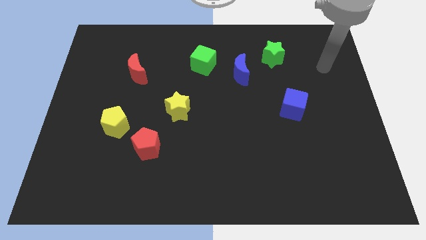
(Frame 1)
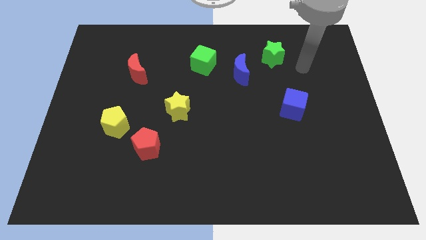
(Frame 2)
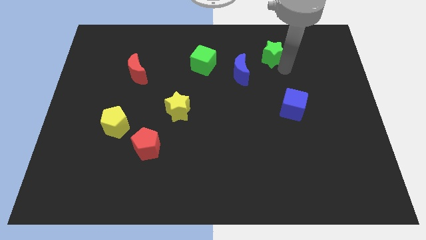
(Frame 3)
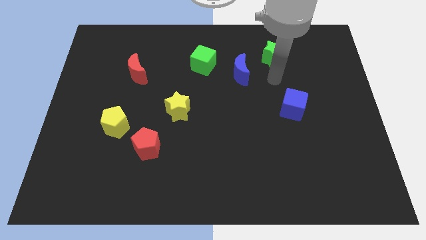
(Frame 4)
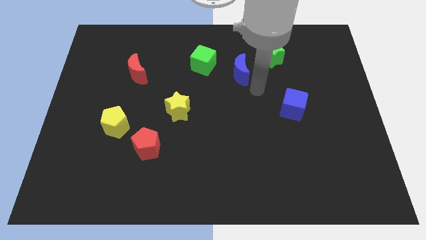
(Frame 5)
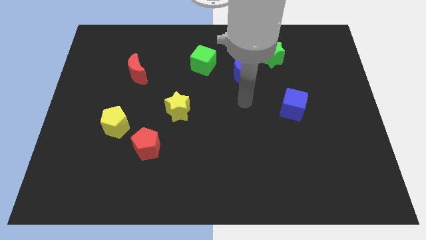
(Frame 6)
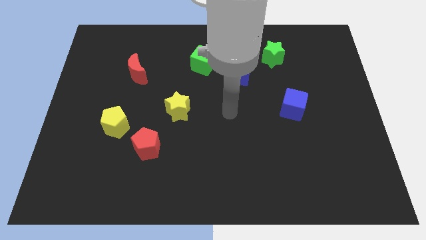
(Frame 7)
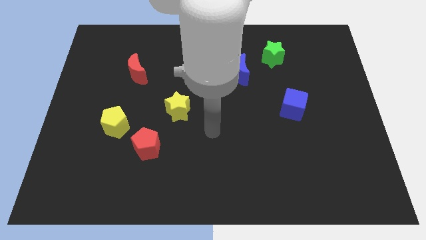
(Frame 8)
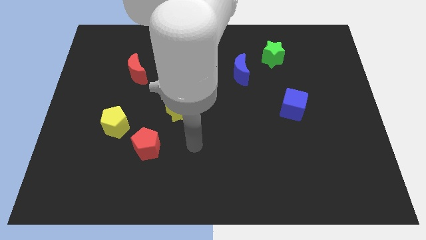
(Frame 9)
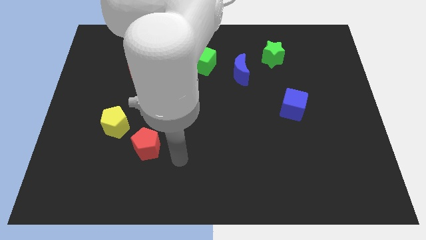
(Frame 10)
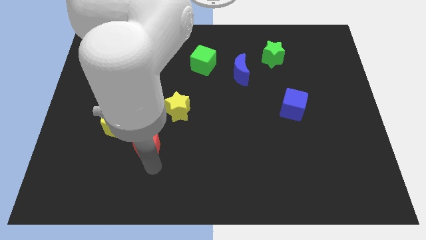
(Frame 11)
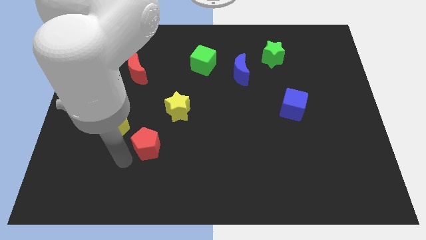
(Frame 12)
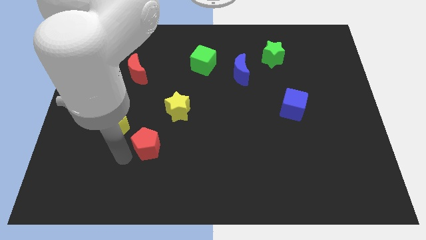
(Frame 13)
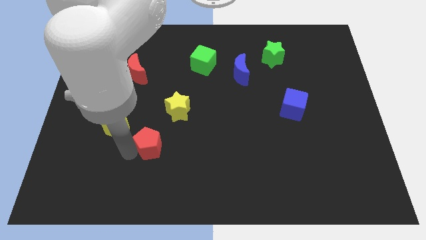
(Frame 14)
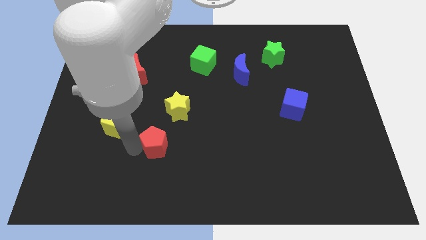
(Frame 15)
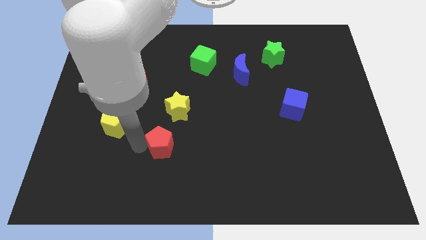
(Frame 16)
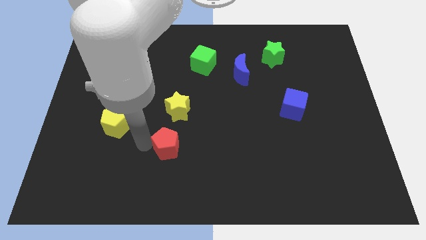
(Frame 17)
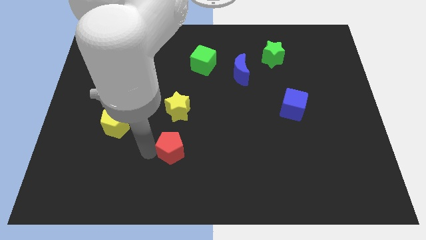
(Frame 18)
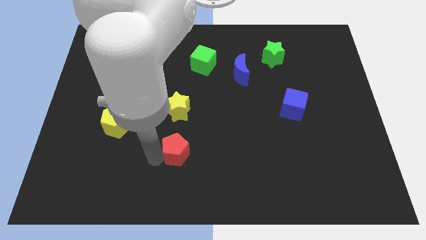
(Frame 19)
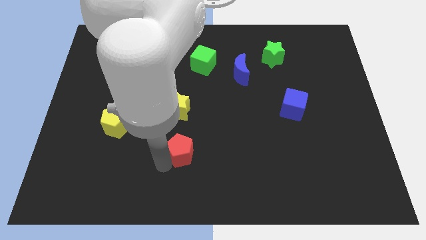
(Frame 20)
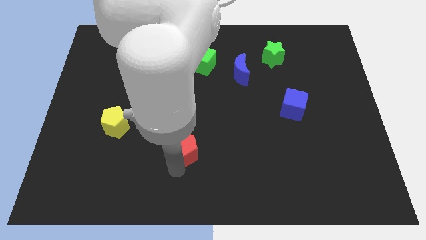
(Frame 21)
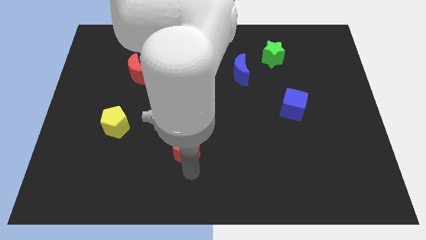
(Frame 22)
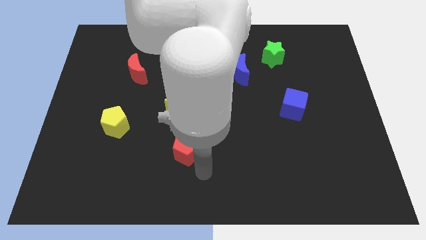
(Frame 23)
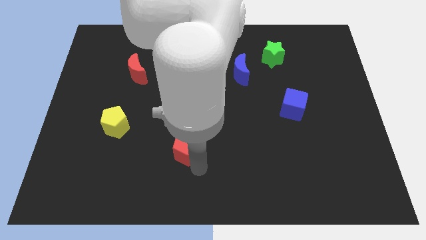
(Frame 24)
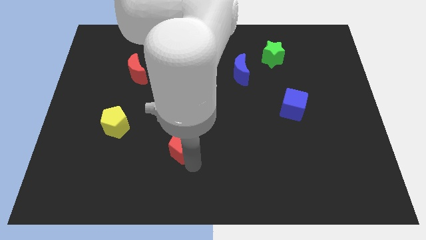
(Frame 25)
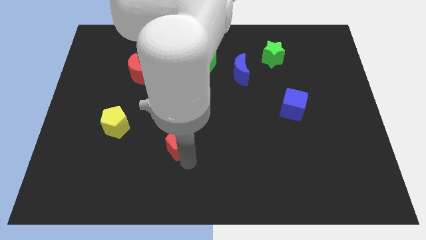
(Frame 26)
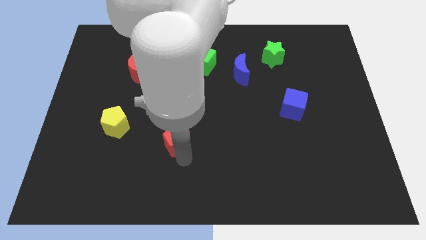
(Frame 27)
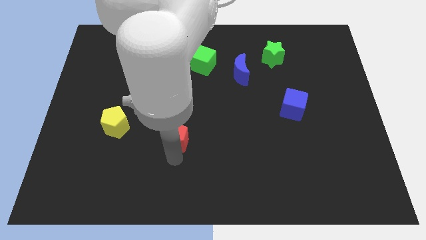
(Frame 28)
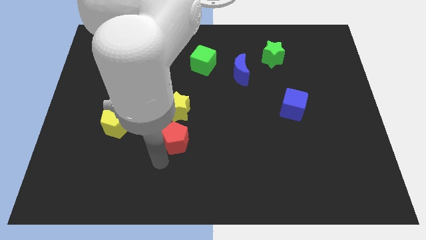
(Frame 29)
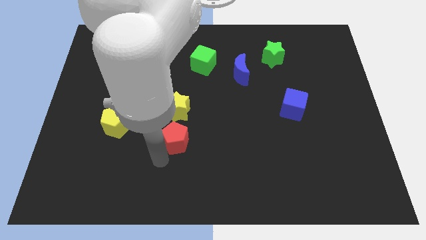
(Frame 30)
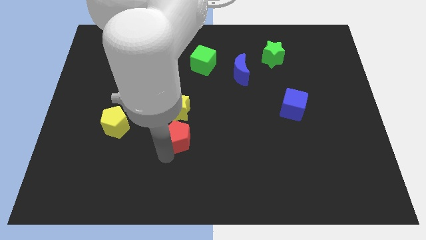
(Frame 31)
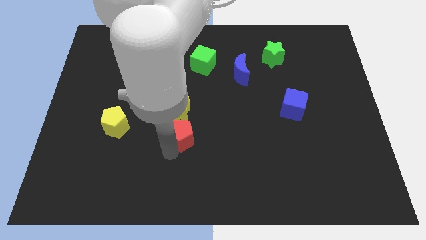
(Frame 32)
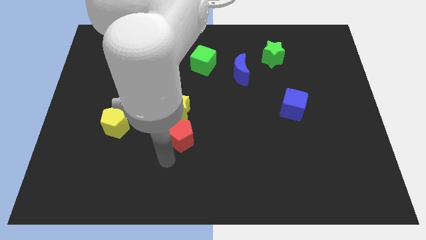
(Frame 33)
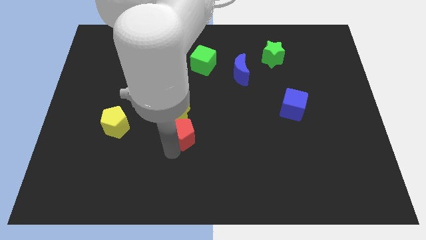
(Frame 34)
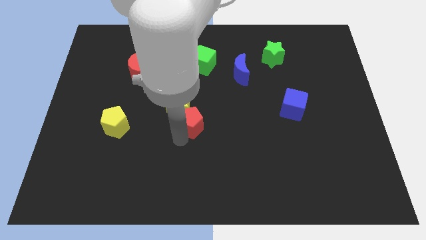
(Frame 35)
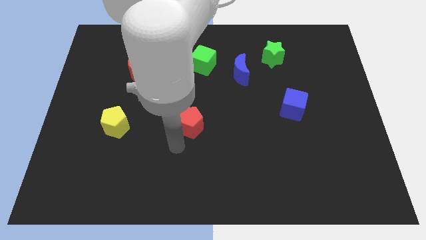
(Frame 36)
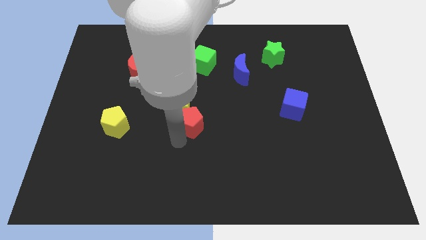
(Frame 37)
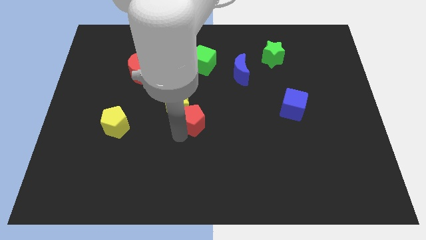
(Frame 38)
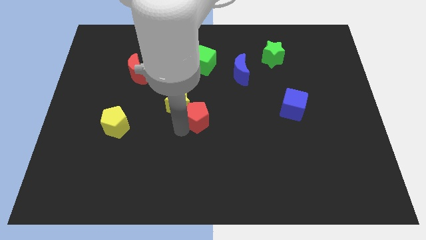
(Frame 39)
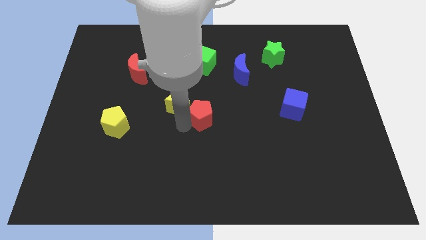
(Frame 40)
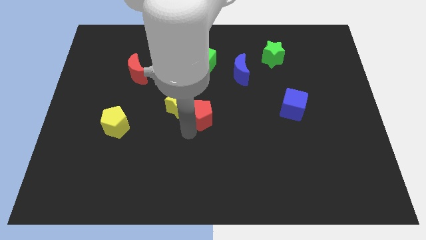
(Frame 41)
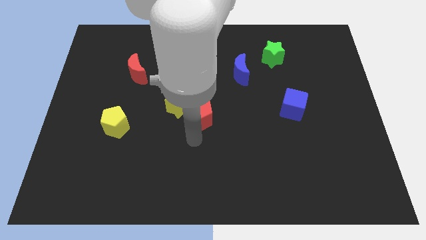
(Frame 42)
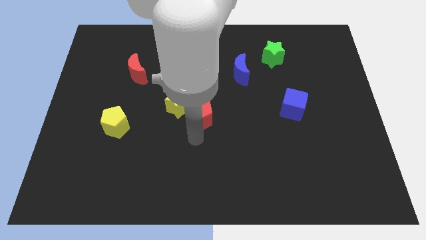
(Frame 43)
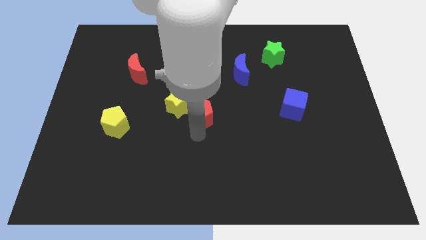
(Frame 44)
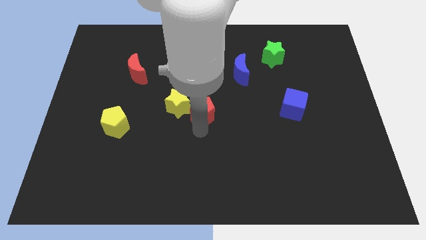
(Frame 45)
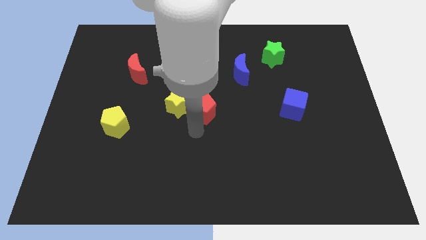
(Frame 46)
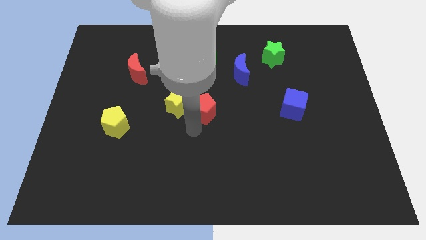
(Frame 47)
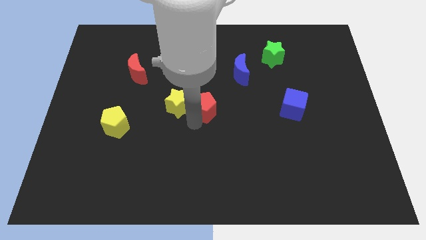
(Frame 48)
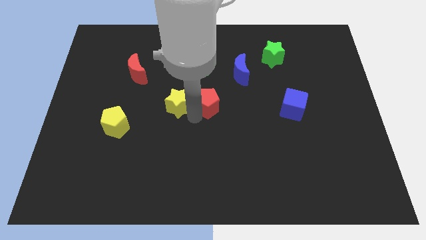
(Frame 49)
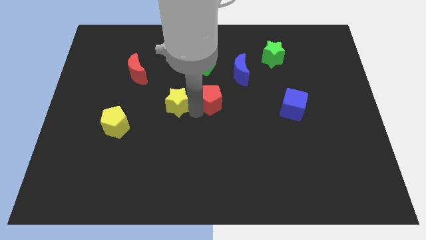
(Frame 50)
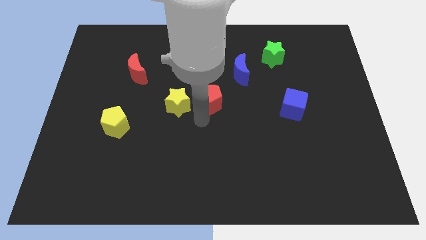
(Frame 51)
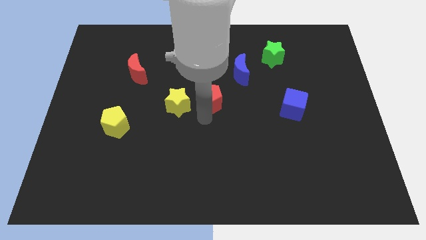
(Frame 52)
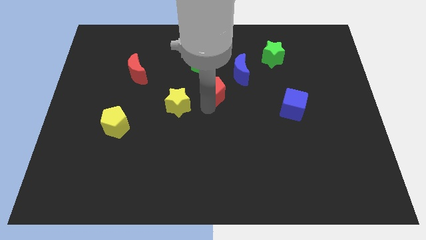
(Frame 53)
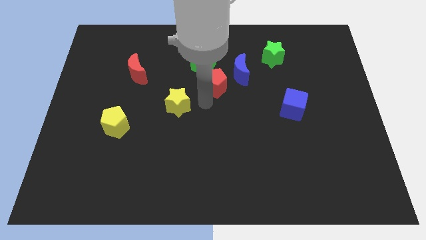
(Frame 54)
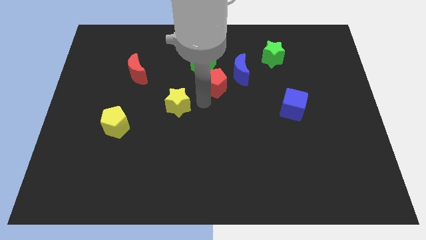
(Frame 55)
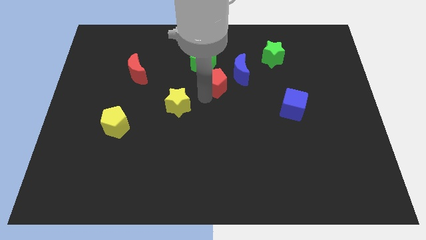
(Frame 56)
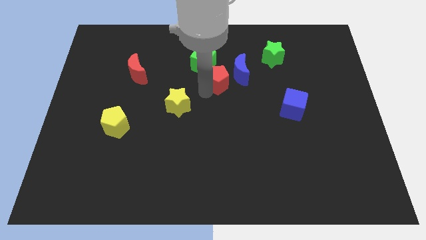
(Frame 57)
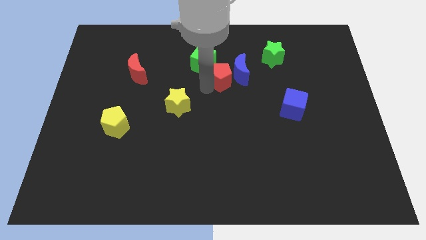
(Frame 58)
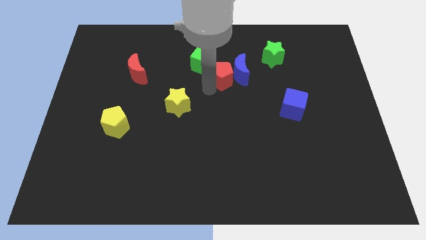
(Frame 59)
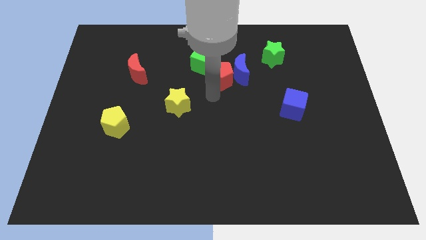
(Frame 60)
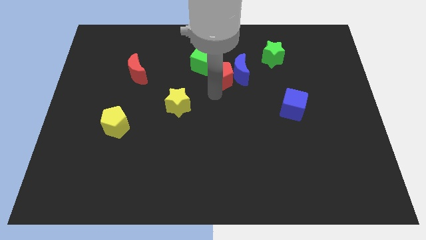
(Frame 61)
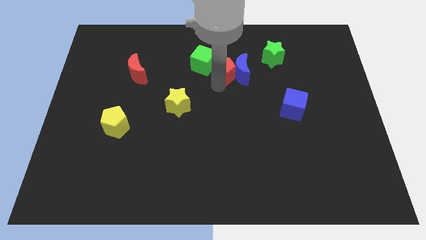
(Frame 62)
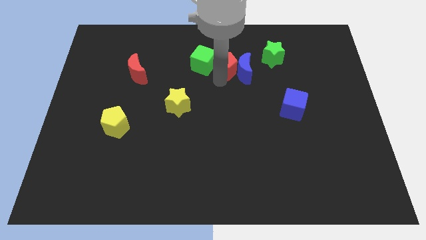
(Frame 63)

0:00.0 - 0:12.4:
slide the red pentagon just left of the green star
